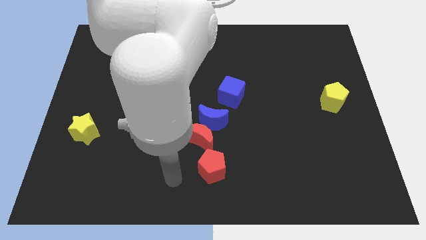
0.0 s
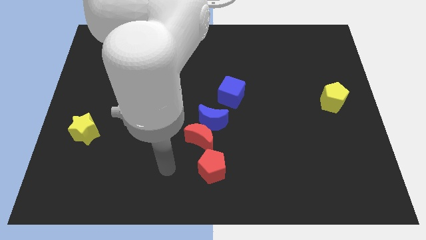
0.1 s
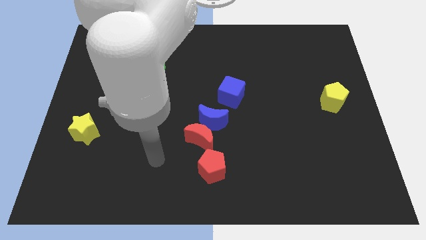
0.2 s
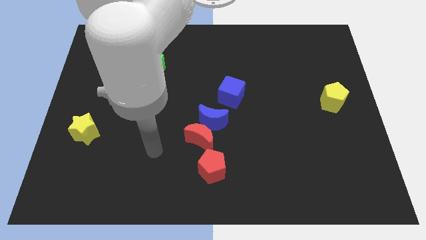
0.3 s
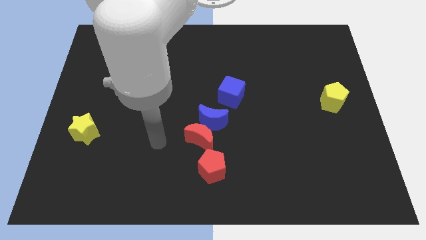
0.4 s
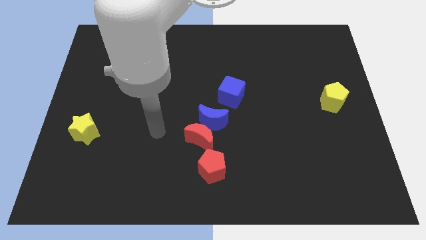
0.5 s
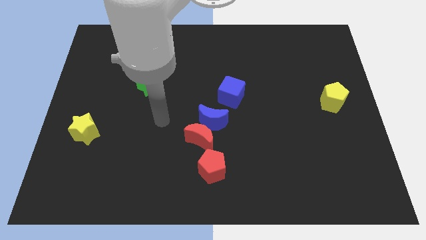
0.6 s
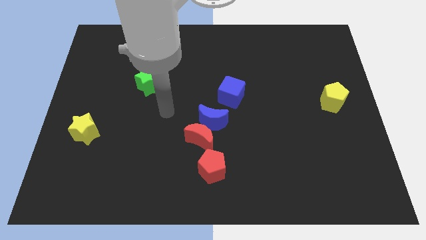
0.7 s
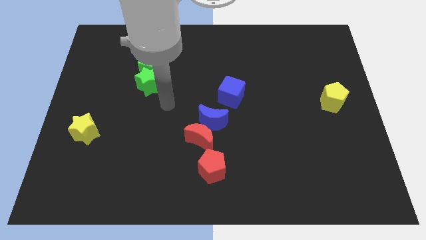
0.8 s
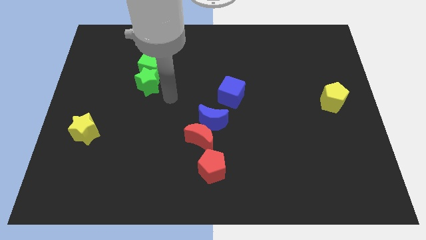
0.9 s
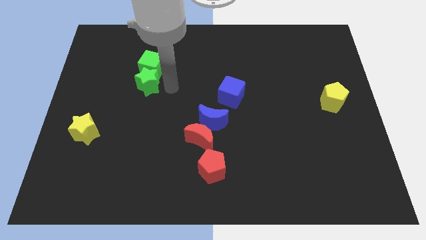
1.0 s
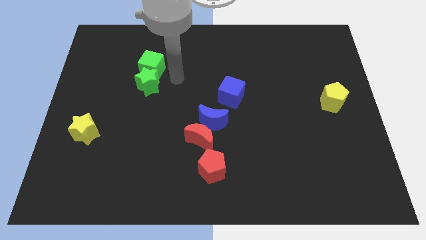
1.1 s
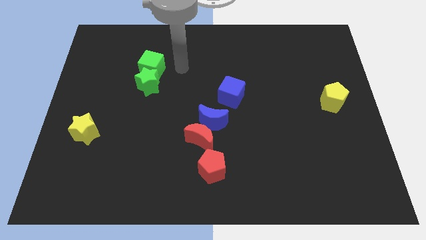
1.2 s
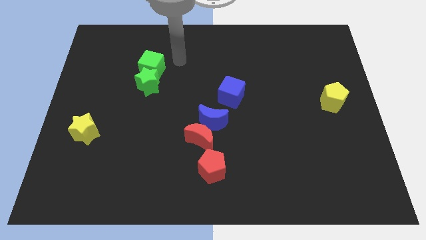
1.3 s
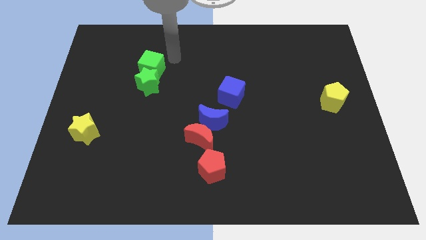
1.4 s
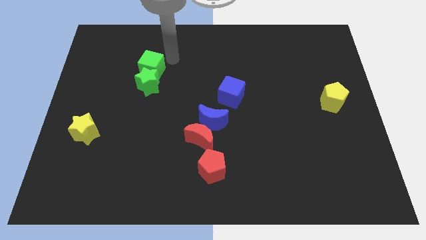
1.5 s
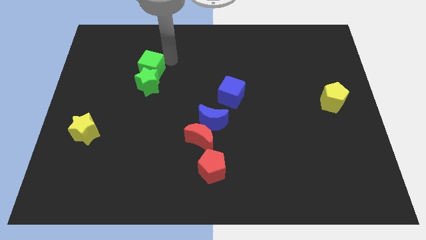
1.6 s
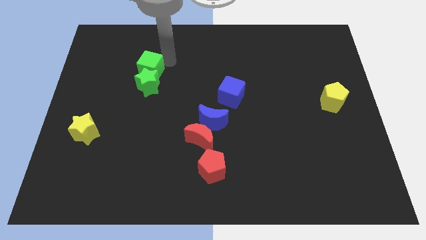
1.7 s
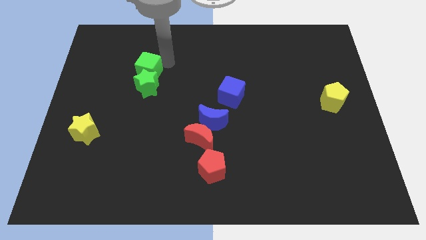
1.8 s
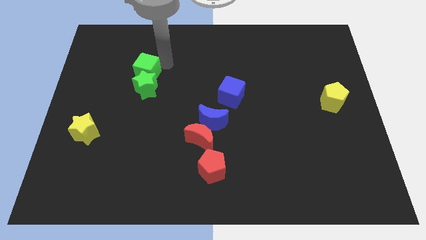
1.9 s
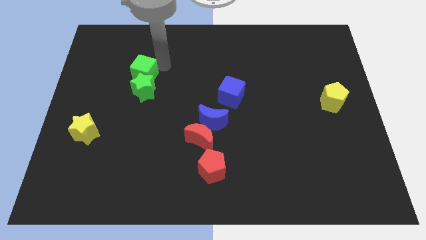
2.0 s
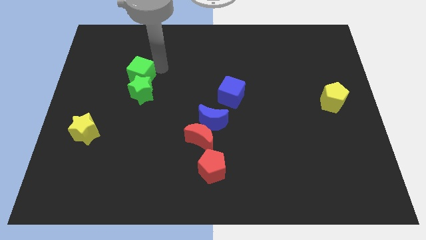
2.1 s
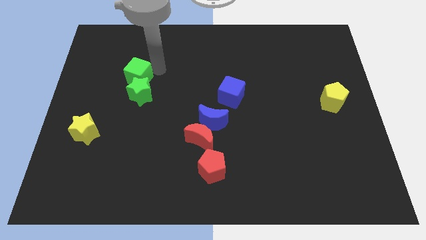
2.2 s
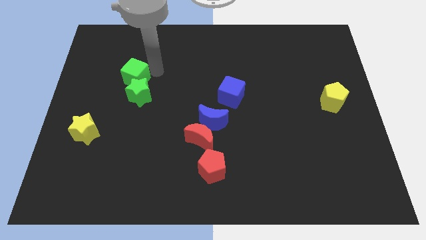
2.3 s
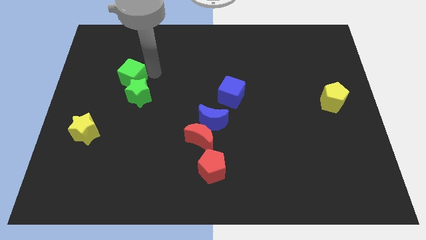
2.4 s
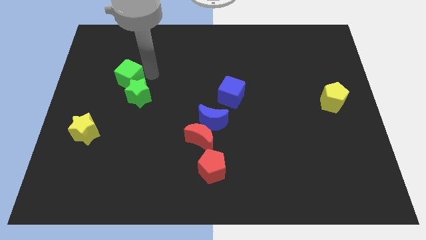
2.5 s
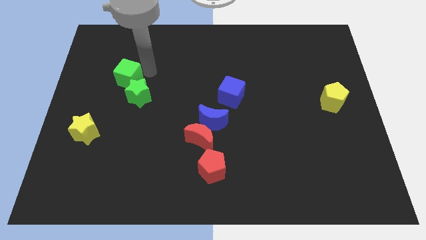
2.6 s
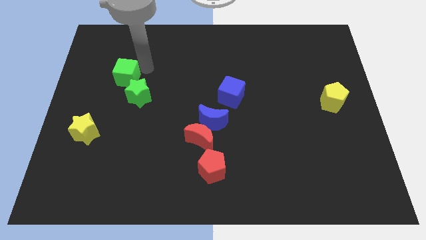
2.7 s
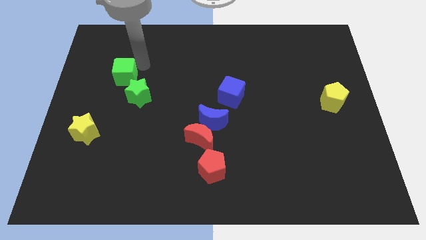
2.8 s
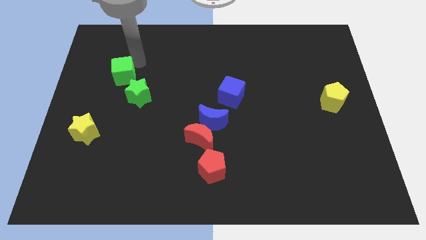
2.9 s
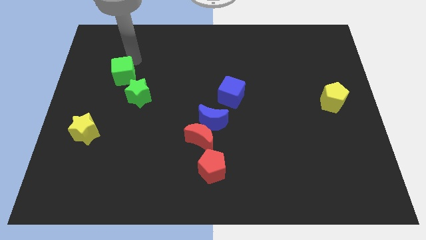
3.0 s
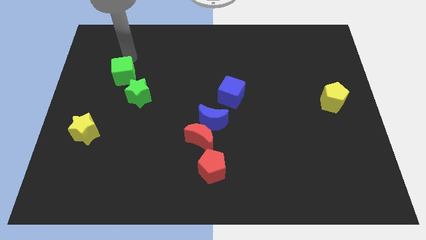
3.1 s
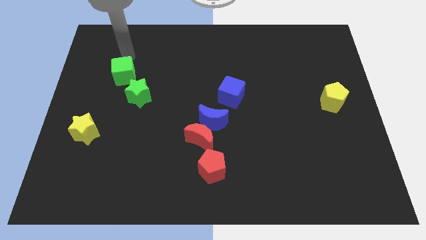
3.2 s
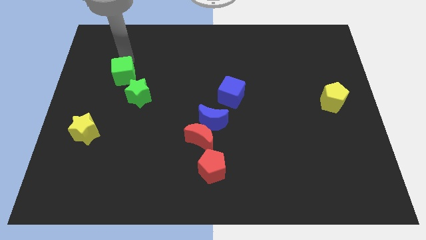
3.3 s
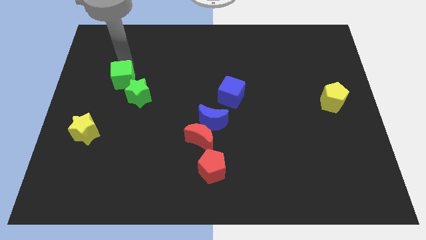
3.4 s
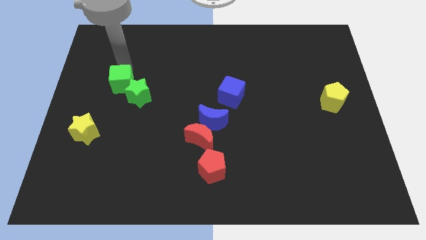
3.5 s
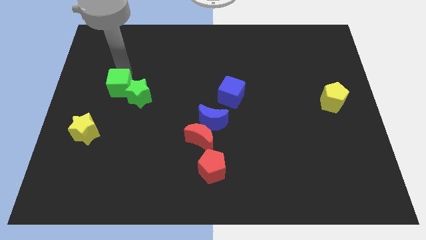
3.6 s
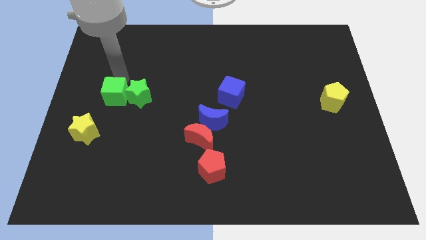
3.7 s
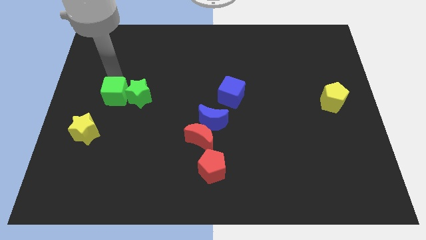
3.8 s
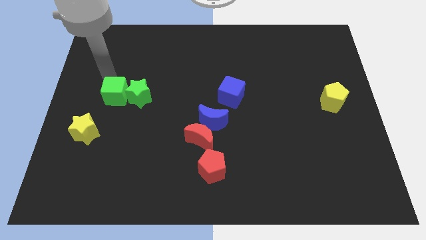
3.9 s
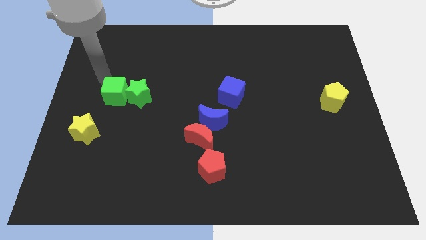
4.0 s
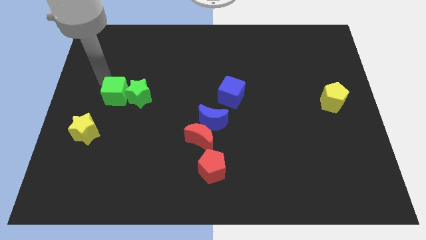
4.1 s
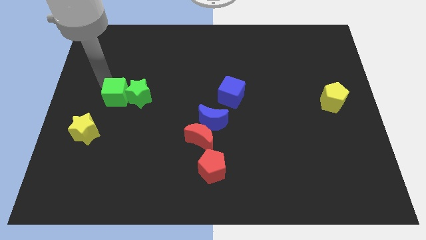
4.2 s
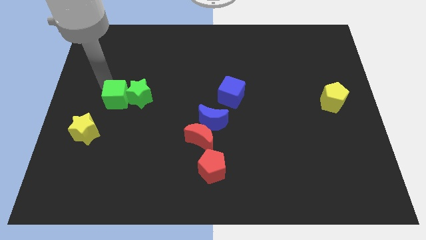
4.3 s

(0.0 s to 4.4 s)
slightly move the green cube downwards

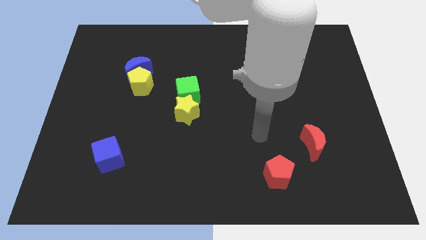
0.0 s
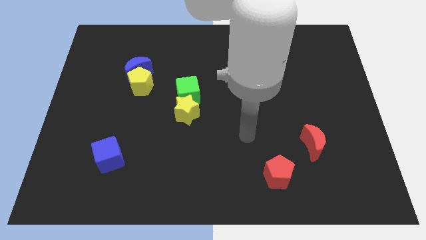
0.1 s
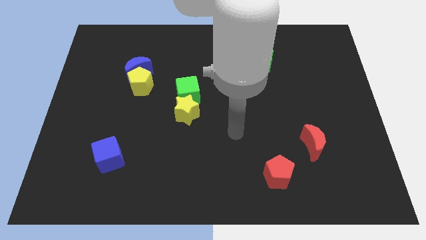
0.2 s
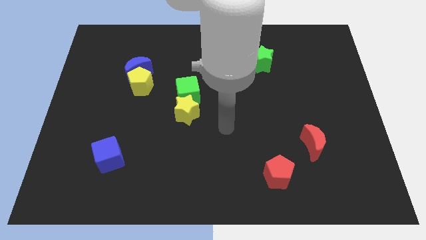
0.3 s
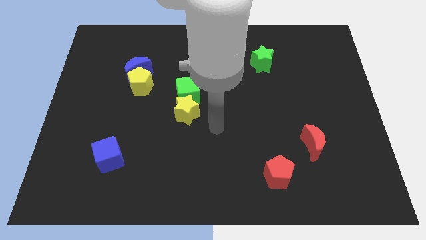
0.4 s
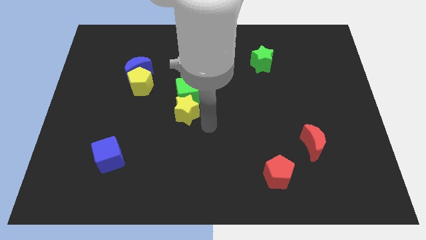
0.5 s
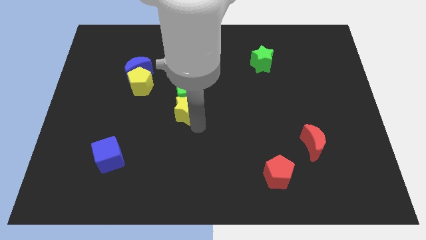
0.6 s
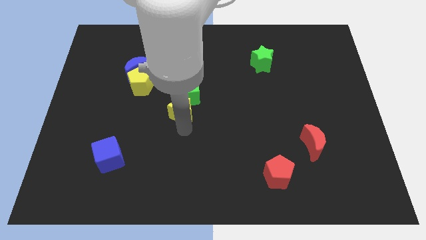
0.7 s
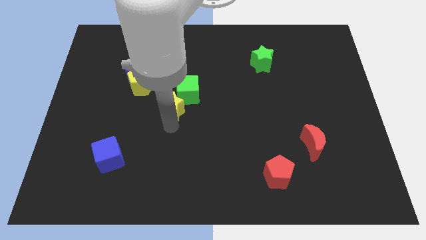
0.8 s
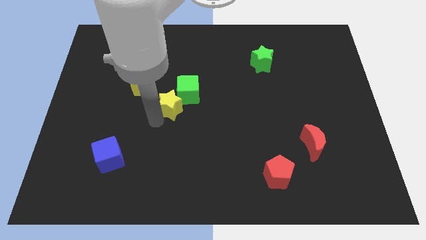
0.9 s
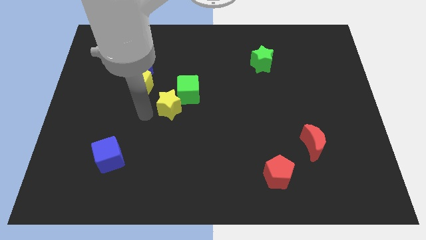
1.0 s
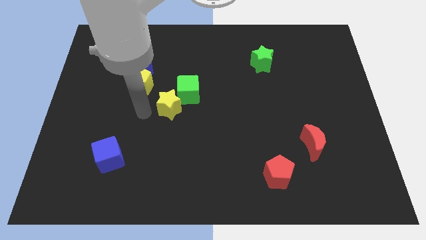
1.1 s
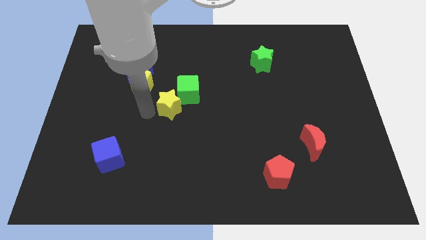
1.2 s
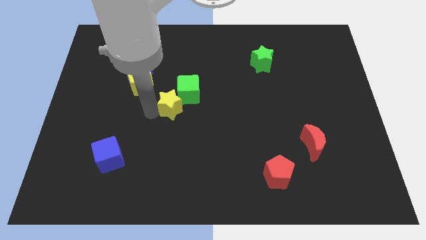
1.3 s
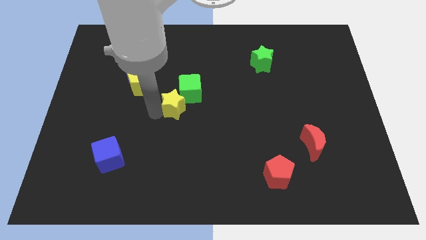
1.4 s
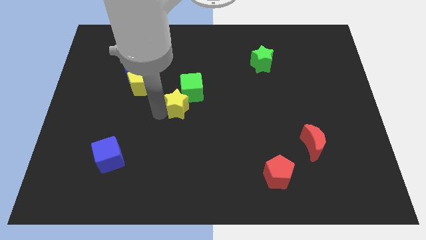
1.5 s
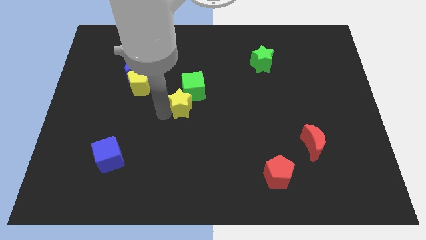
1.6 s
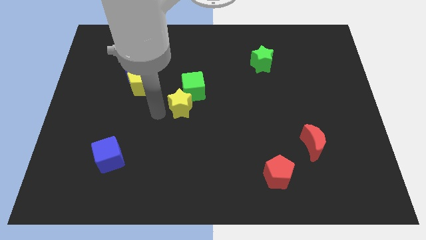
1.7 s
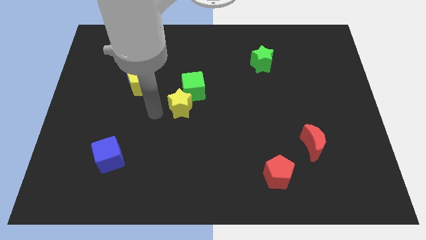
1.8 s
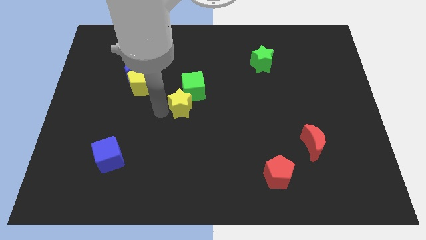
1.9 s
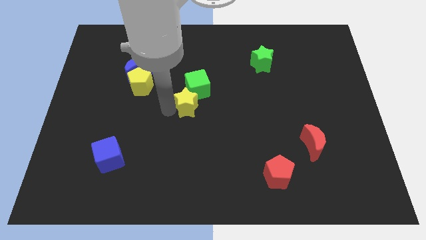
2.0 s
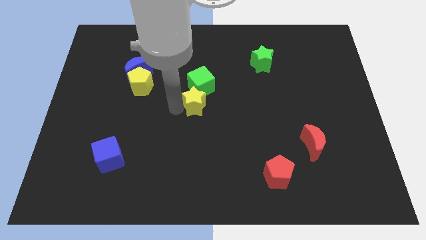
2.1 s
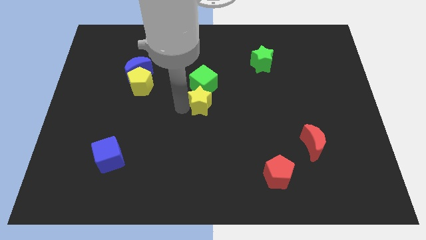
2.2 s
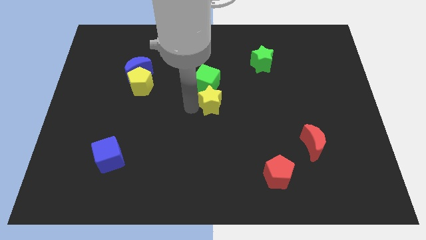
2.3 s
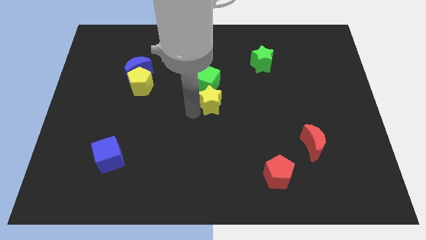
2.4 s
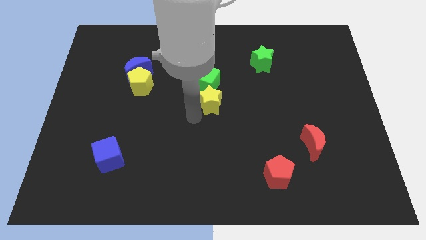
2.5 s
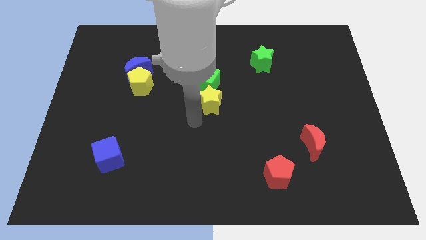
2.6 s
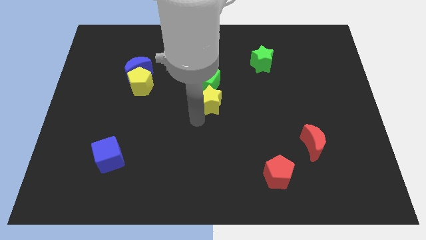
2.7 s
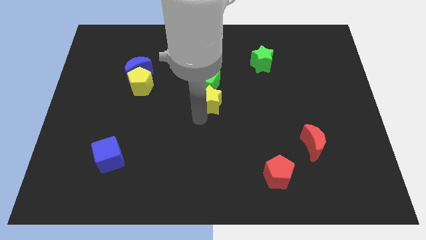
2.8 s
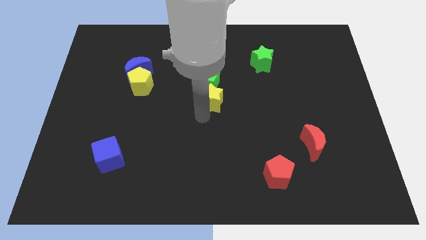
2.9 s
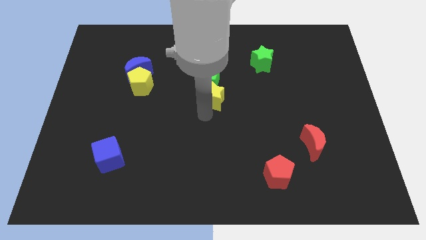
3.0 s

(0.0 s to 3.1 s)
slightly move the yellow star up and right

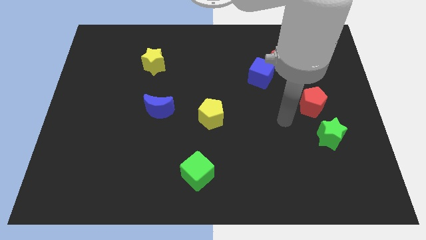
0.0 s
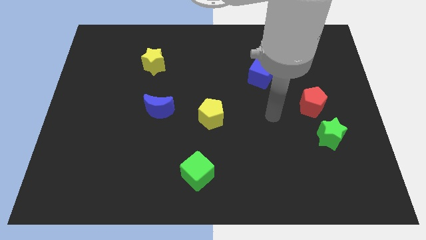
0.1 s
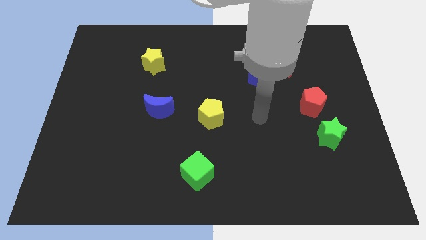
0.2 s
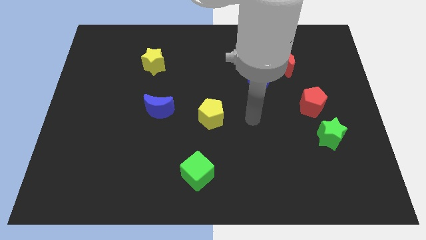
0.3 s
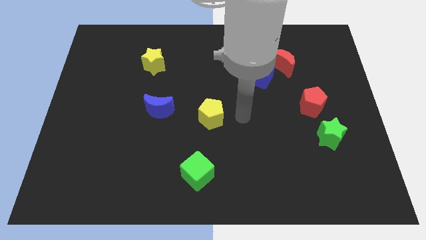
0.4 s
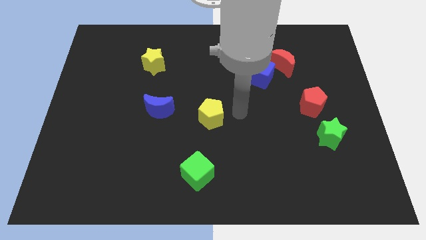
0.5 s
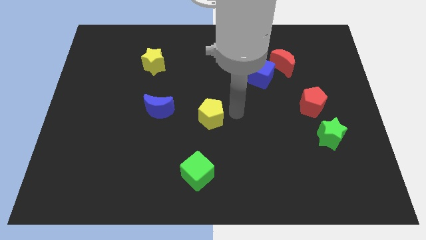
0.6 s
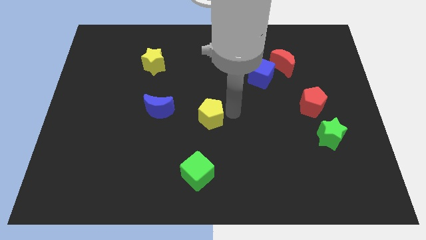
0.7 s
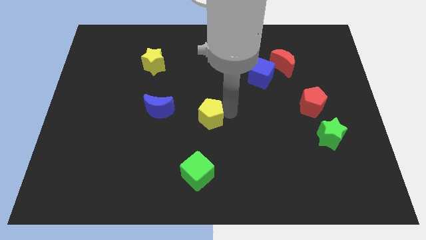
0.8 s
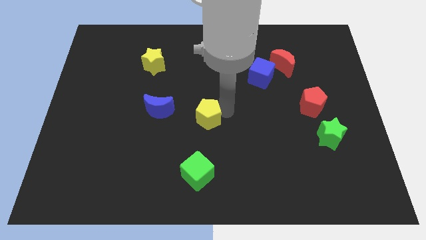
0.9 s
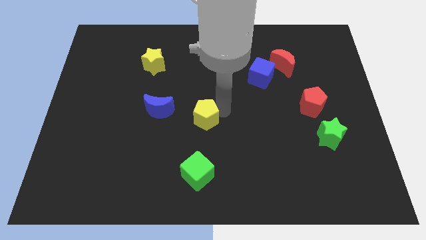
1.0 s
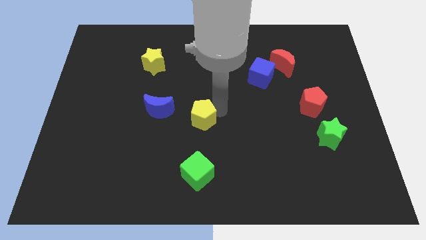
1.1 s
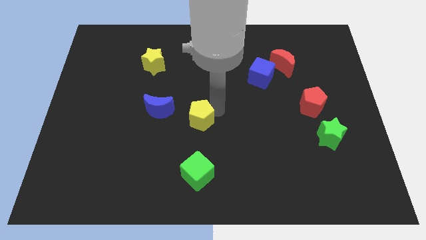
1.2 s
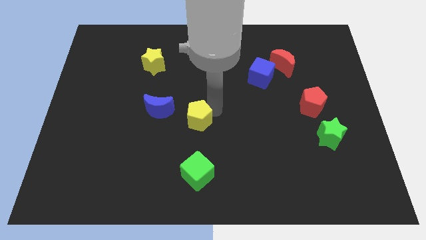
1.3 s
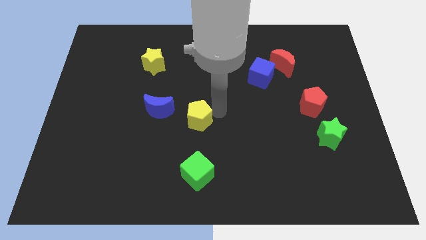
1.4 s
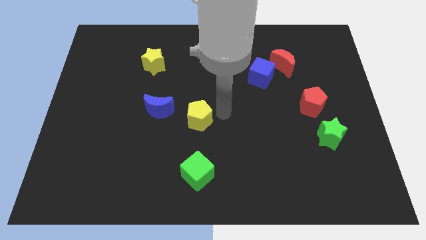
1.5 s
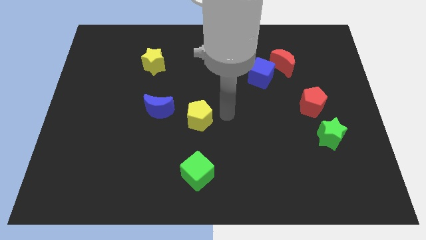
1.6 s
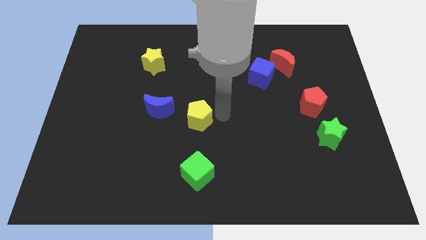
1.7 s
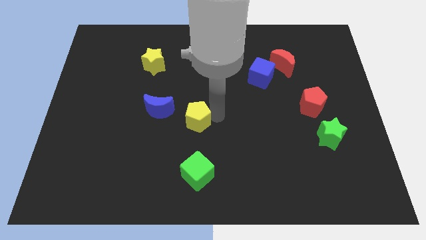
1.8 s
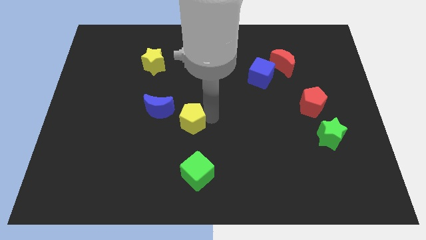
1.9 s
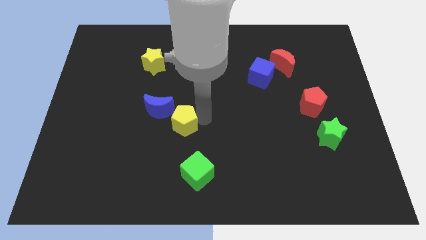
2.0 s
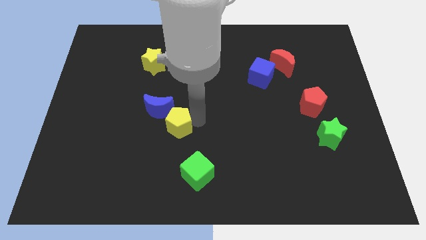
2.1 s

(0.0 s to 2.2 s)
push the yellow pentagon left a little
